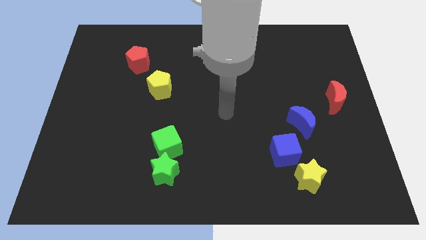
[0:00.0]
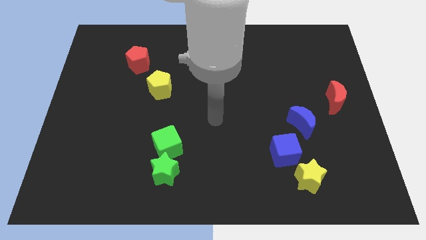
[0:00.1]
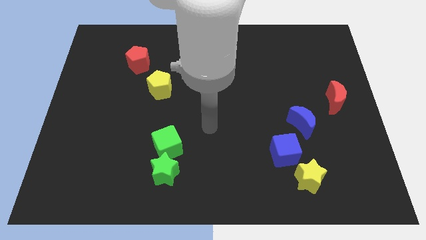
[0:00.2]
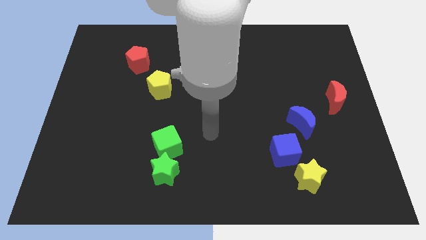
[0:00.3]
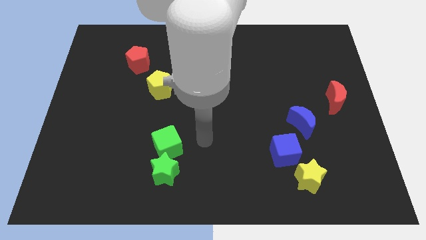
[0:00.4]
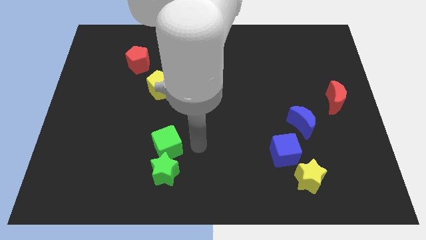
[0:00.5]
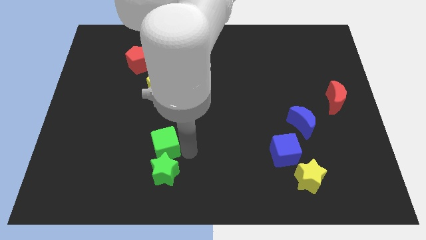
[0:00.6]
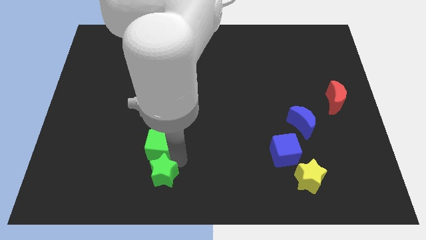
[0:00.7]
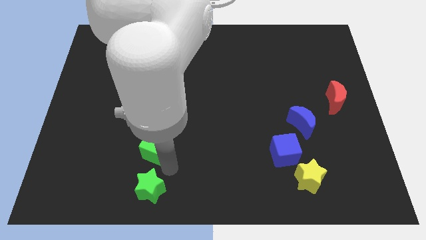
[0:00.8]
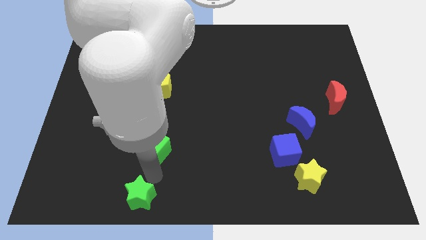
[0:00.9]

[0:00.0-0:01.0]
separate the green cube from the green star

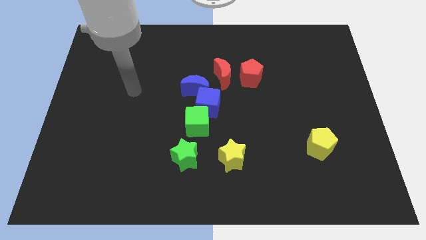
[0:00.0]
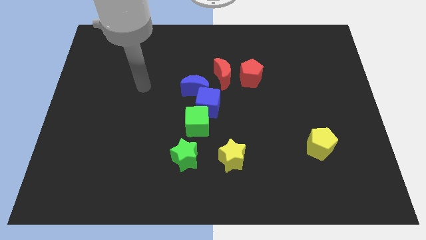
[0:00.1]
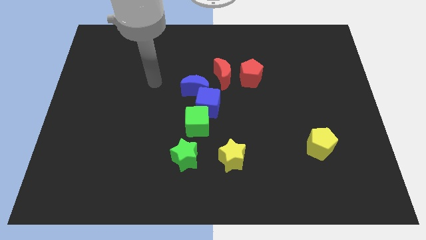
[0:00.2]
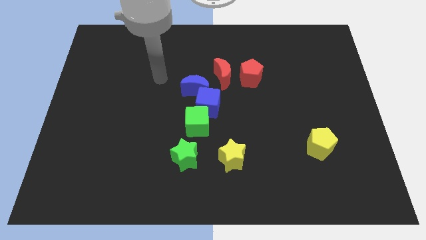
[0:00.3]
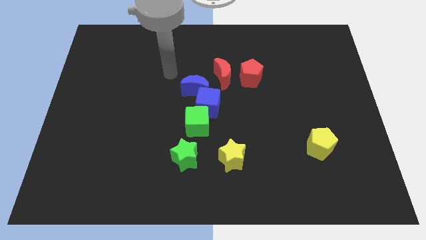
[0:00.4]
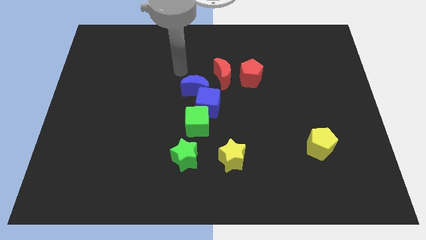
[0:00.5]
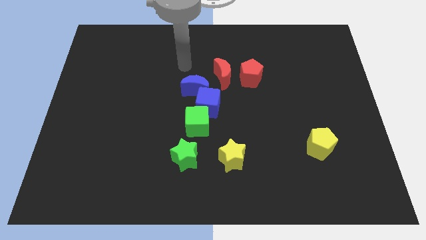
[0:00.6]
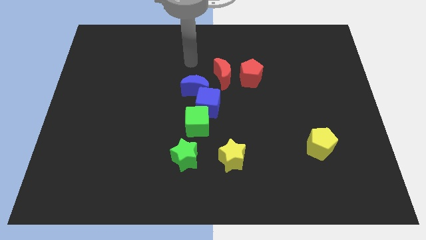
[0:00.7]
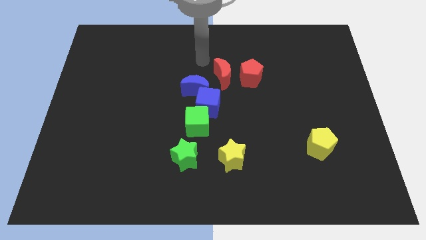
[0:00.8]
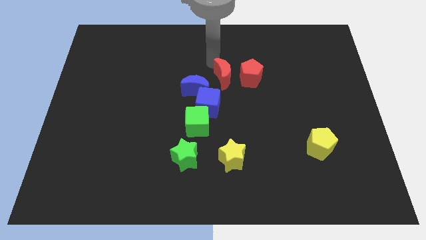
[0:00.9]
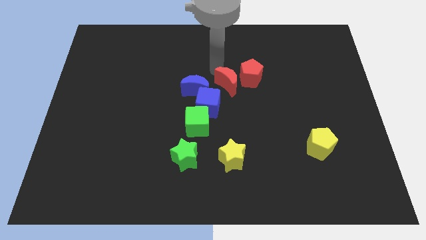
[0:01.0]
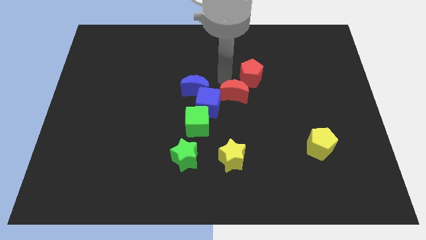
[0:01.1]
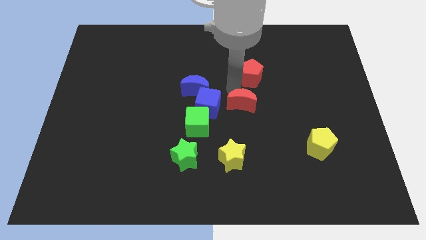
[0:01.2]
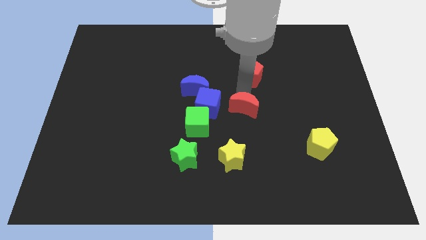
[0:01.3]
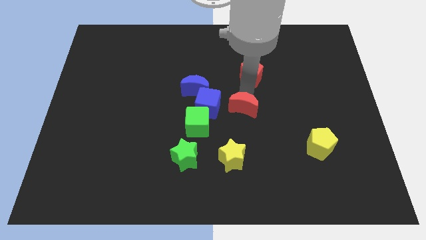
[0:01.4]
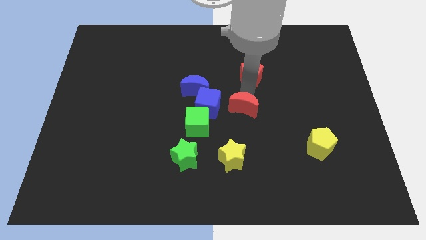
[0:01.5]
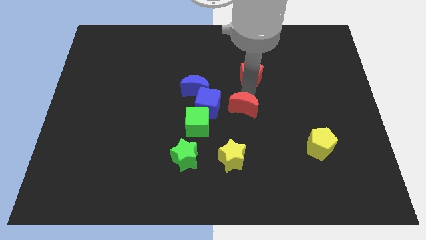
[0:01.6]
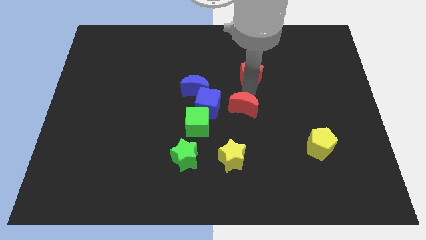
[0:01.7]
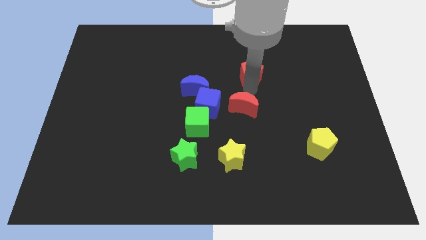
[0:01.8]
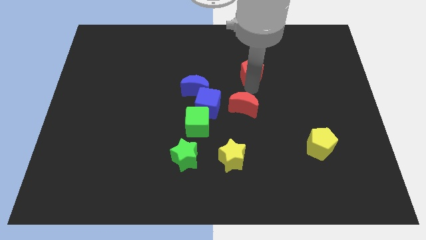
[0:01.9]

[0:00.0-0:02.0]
move the red pentagon away from the red moon

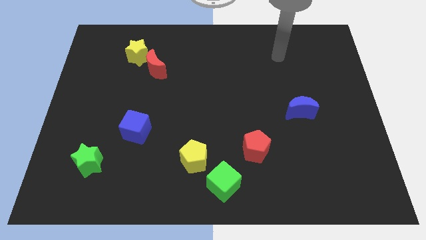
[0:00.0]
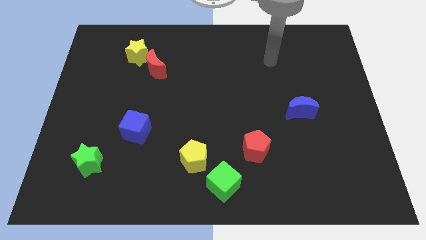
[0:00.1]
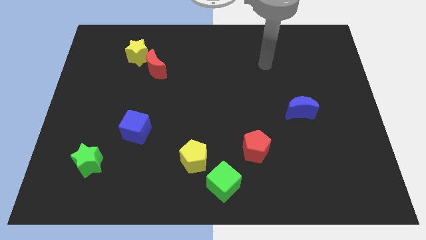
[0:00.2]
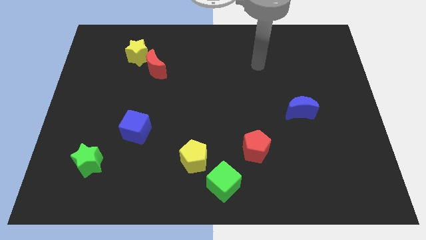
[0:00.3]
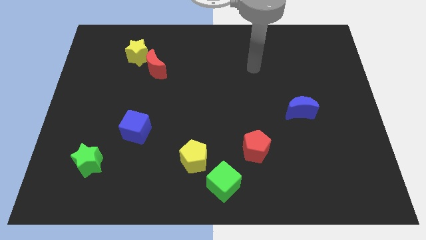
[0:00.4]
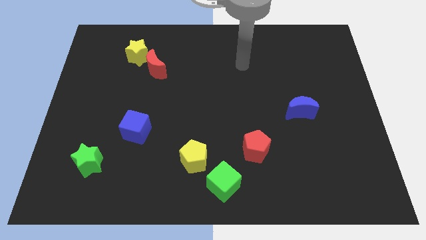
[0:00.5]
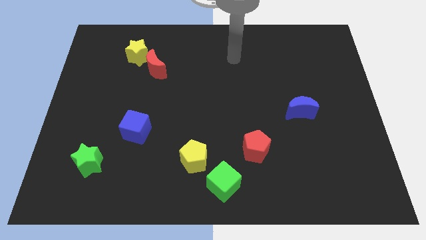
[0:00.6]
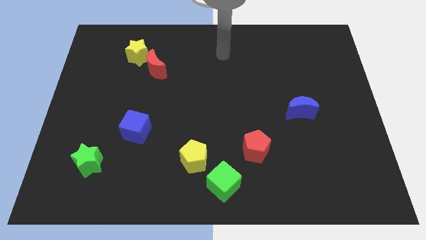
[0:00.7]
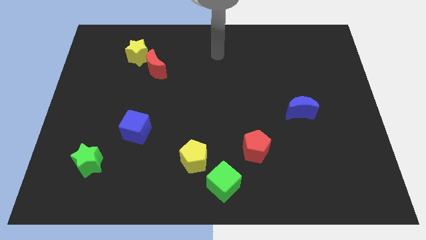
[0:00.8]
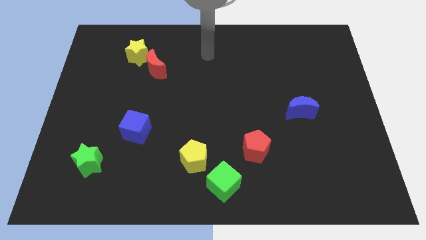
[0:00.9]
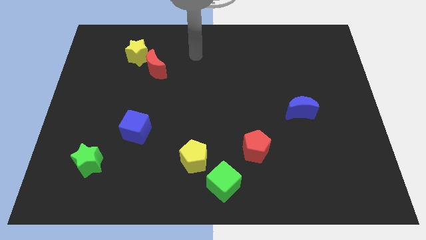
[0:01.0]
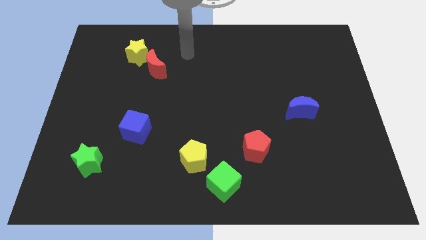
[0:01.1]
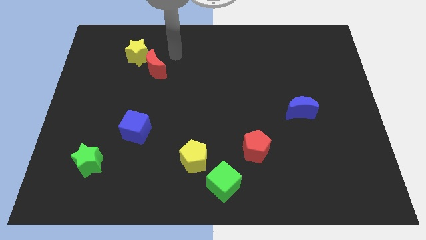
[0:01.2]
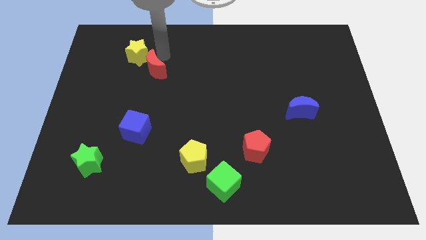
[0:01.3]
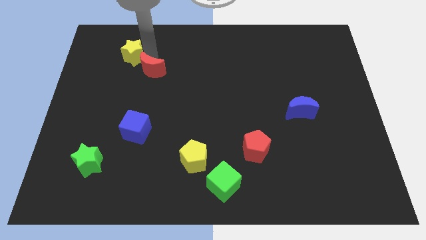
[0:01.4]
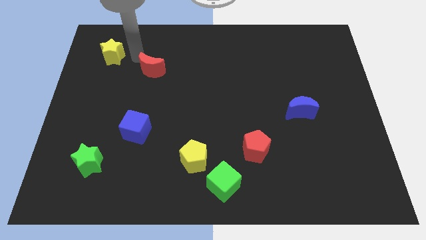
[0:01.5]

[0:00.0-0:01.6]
separate the red moon from the yellow star

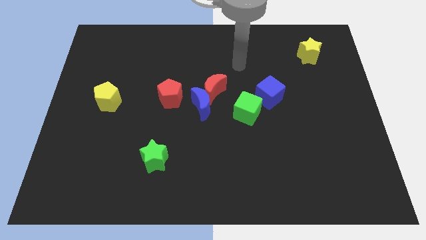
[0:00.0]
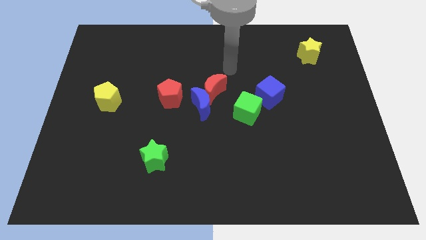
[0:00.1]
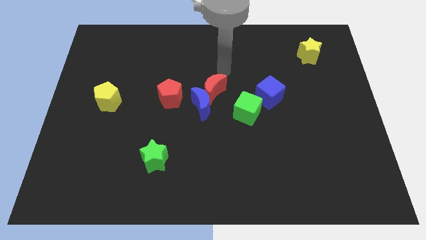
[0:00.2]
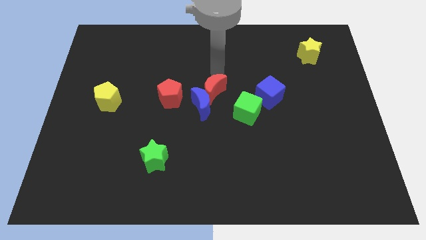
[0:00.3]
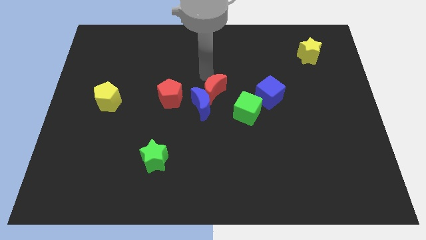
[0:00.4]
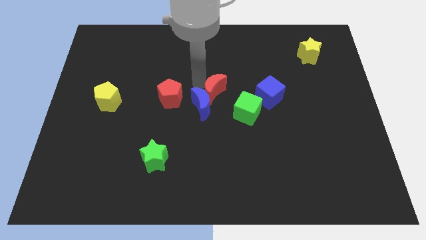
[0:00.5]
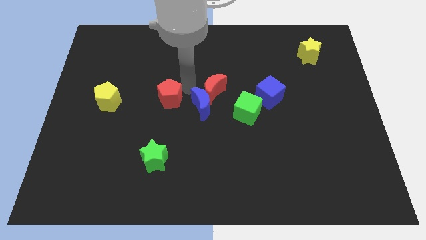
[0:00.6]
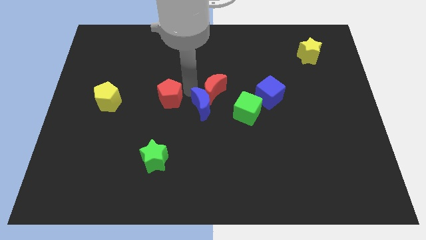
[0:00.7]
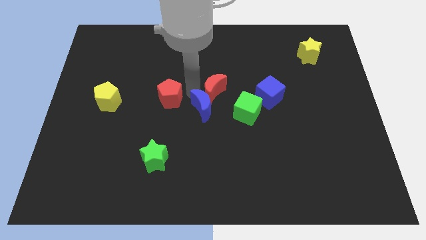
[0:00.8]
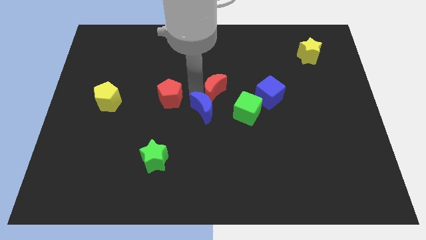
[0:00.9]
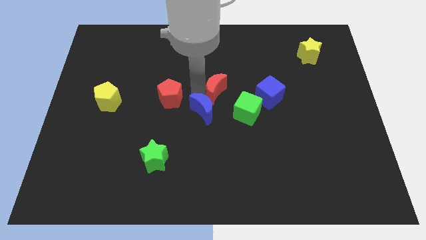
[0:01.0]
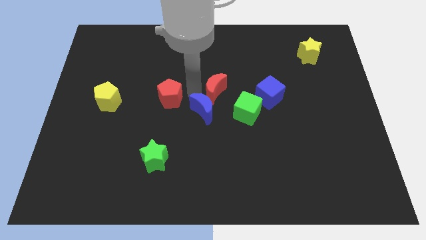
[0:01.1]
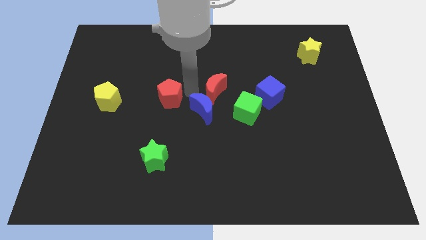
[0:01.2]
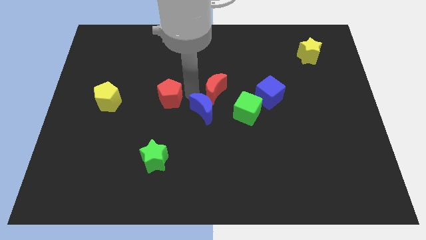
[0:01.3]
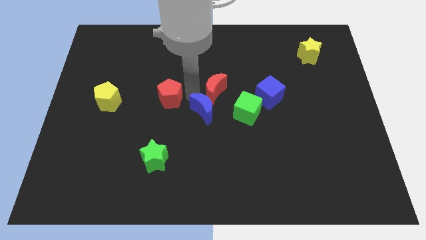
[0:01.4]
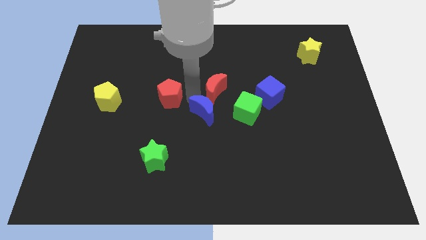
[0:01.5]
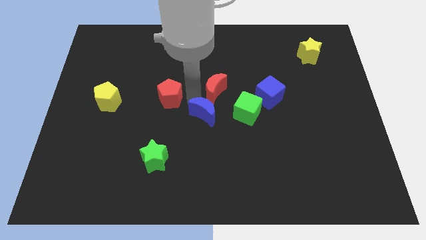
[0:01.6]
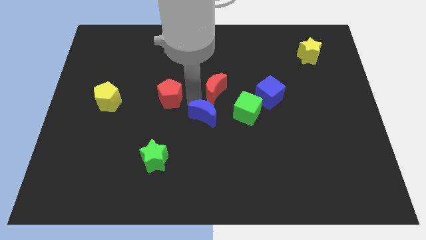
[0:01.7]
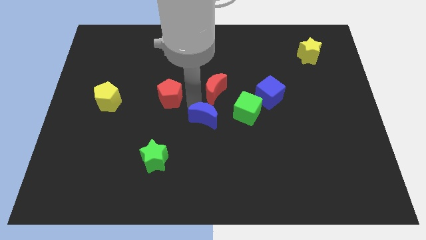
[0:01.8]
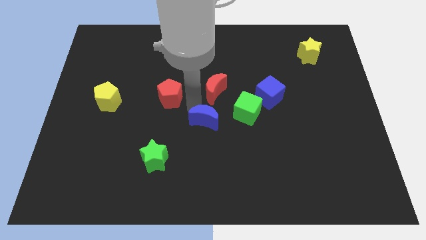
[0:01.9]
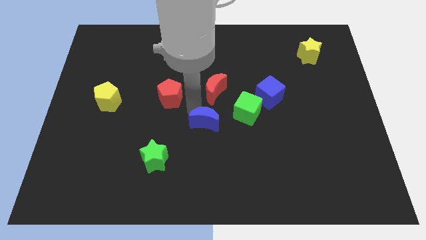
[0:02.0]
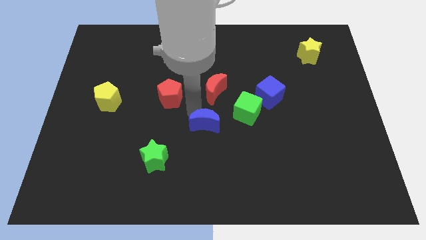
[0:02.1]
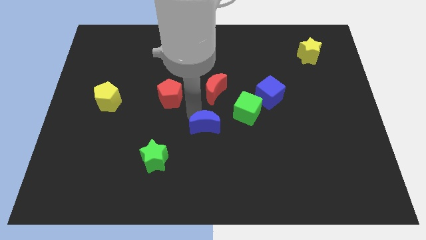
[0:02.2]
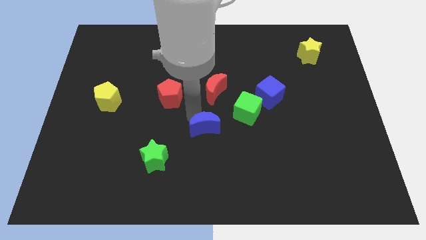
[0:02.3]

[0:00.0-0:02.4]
move the blue moon away from the red moon and red pentagon

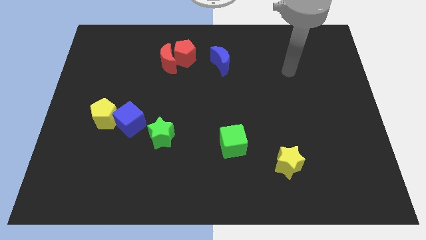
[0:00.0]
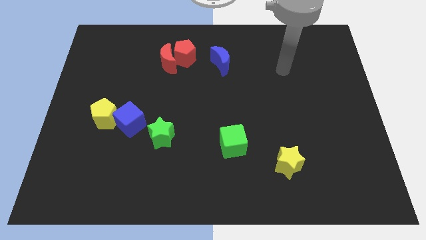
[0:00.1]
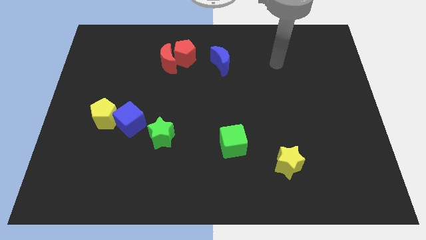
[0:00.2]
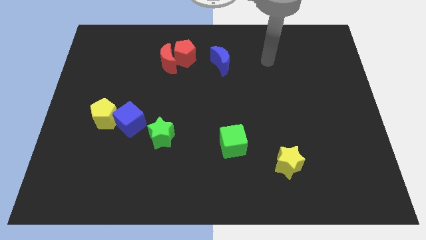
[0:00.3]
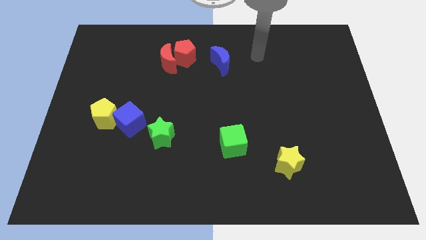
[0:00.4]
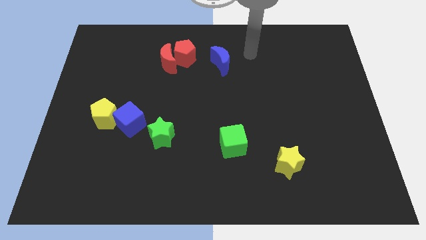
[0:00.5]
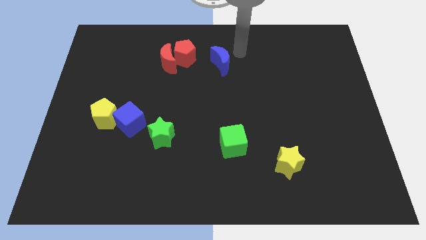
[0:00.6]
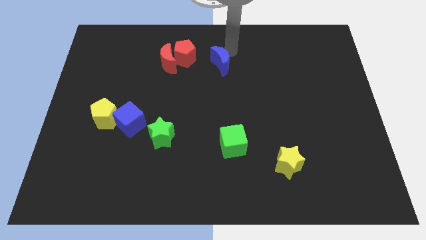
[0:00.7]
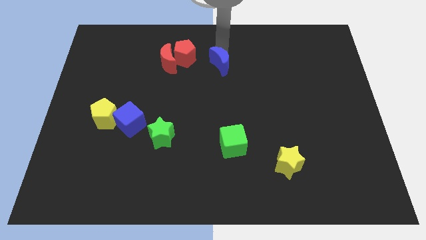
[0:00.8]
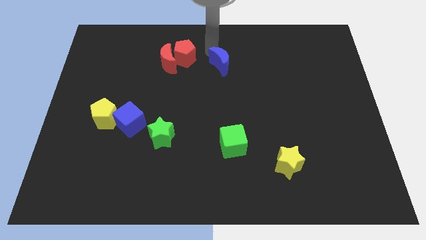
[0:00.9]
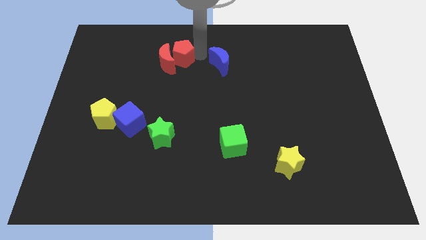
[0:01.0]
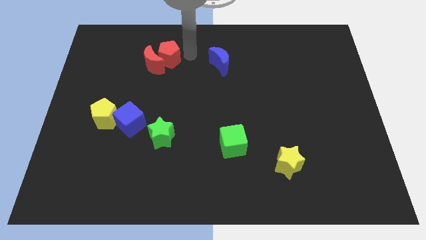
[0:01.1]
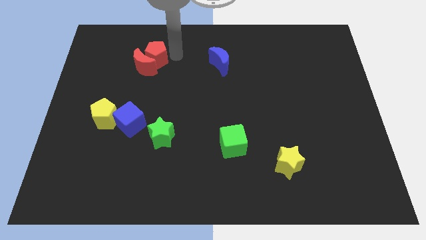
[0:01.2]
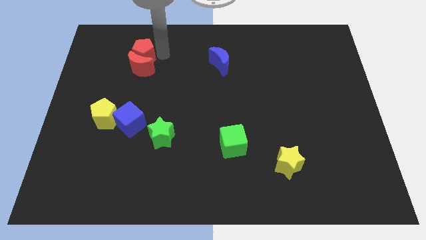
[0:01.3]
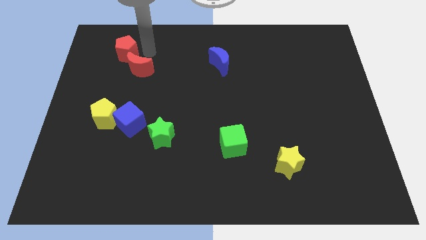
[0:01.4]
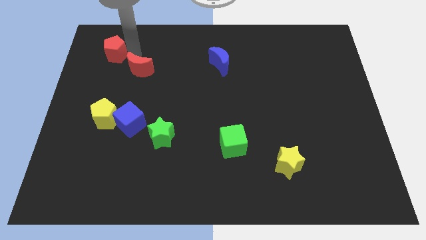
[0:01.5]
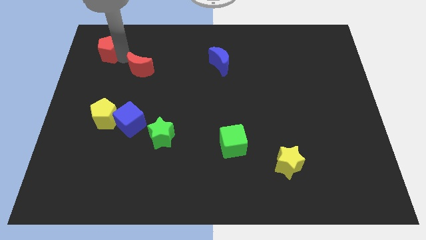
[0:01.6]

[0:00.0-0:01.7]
separate the red moon from the red pentagon

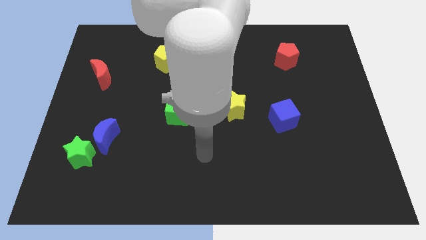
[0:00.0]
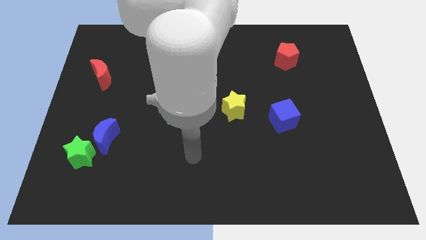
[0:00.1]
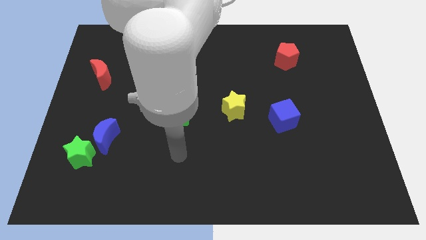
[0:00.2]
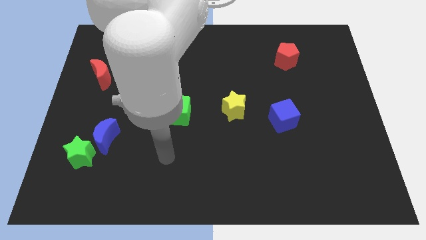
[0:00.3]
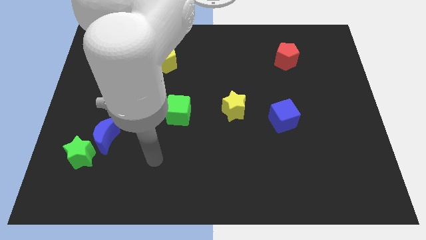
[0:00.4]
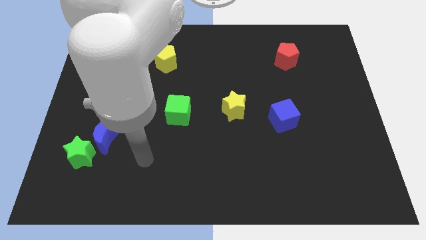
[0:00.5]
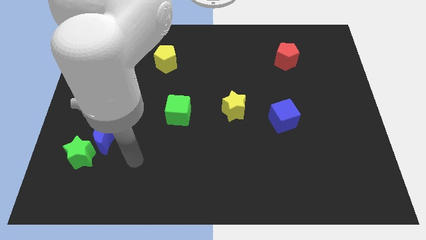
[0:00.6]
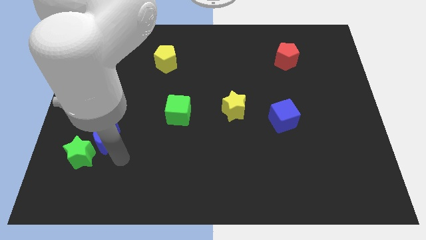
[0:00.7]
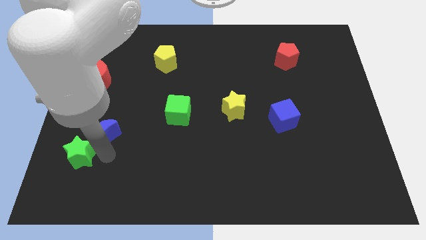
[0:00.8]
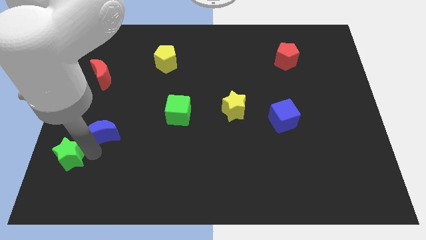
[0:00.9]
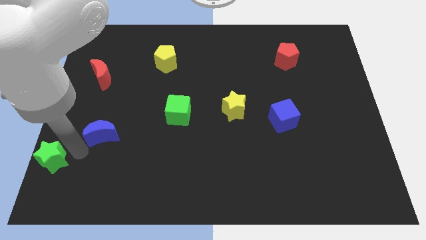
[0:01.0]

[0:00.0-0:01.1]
pull the blue moon apart from the green star